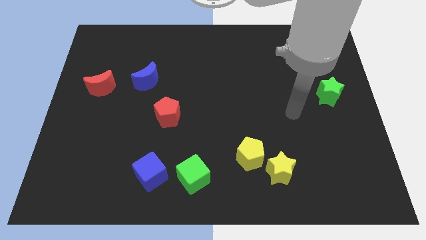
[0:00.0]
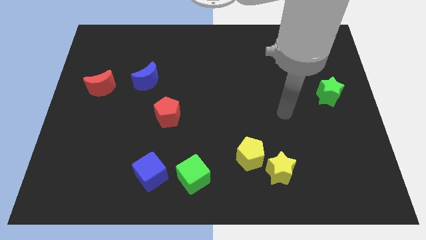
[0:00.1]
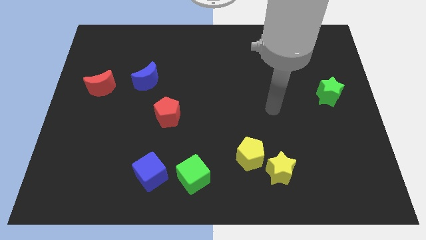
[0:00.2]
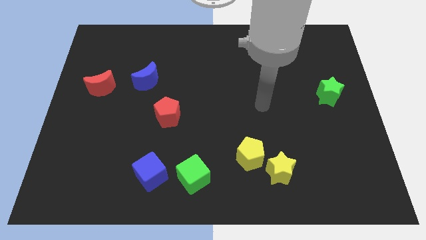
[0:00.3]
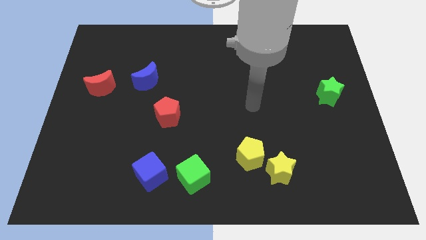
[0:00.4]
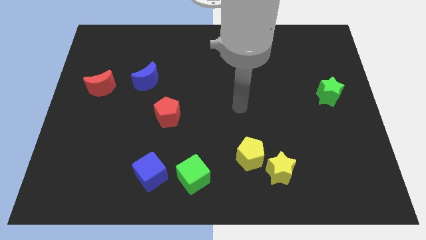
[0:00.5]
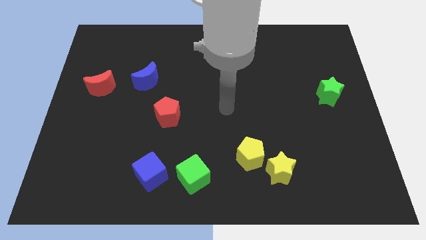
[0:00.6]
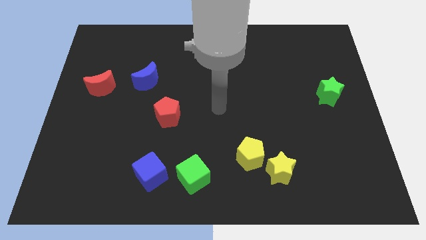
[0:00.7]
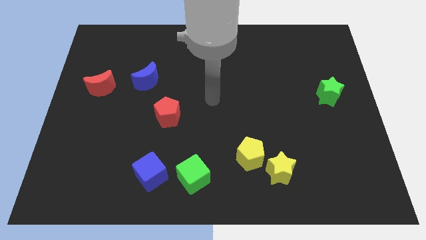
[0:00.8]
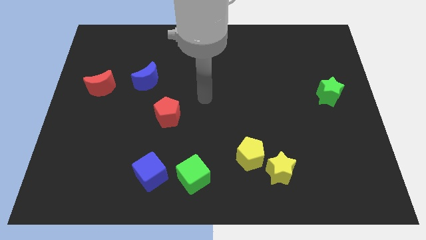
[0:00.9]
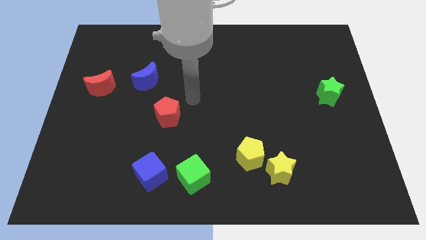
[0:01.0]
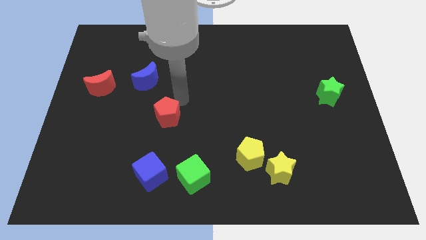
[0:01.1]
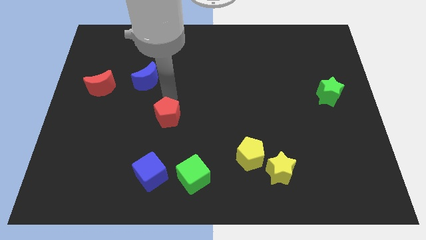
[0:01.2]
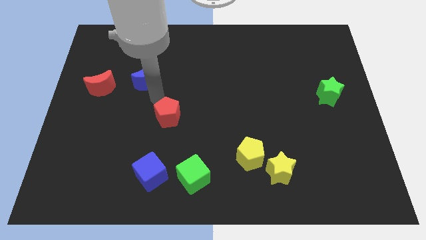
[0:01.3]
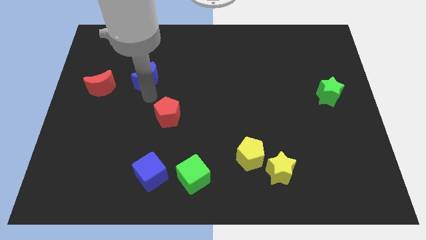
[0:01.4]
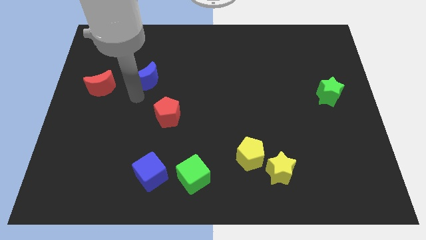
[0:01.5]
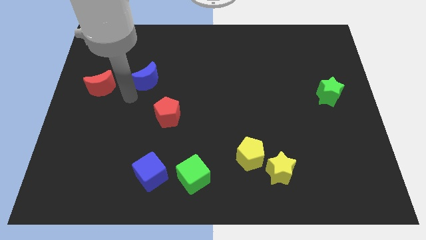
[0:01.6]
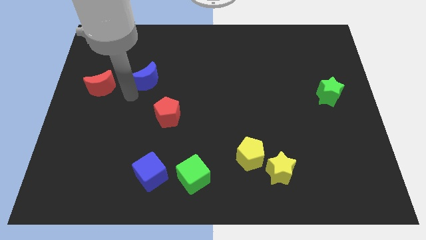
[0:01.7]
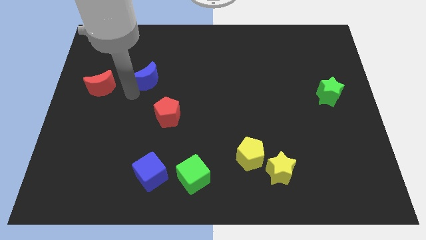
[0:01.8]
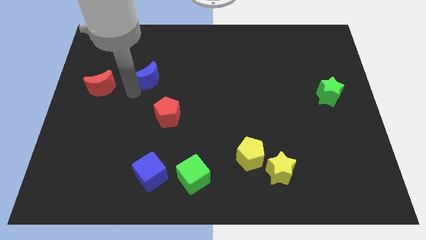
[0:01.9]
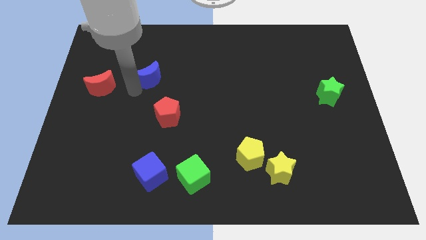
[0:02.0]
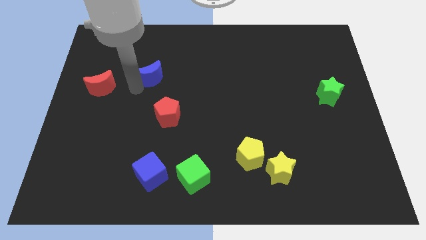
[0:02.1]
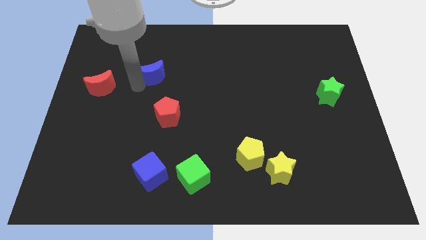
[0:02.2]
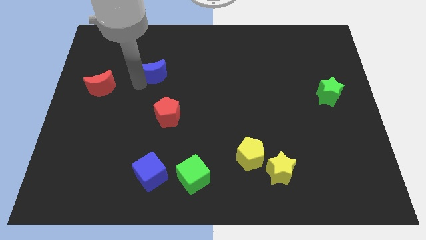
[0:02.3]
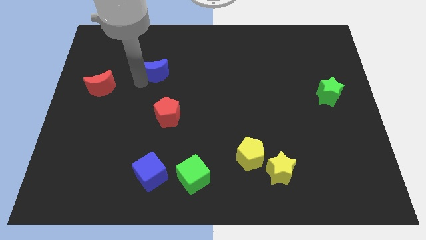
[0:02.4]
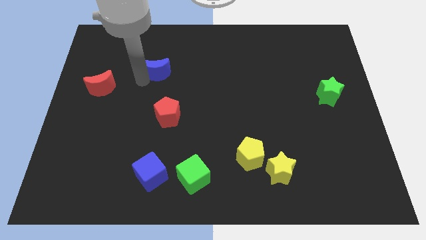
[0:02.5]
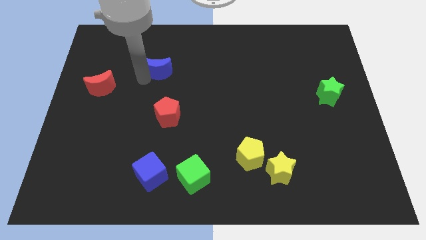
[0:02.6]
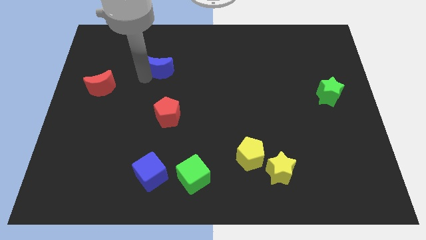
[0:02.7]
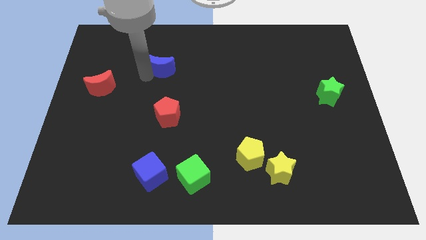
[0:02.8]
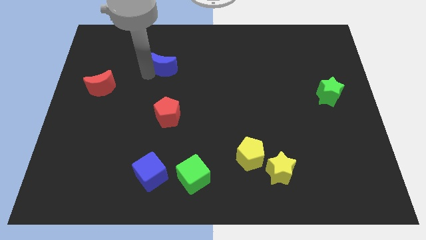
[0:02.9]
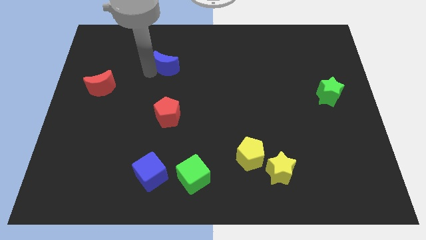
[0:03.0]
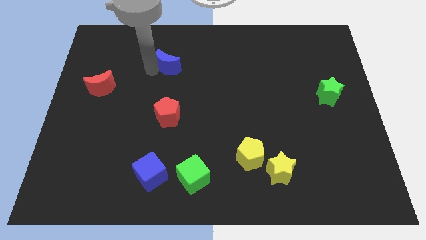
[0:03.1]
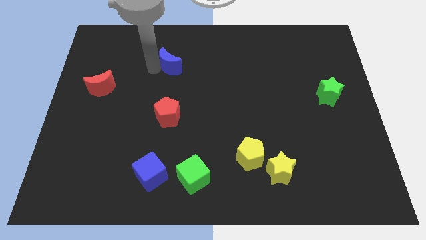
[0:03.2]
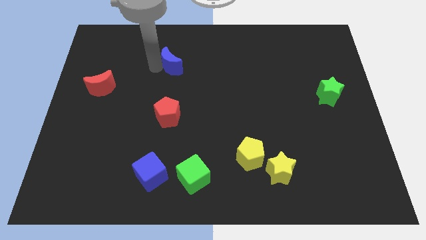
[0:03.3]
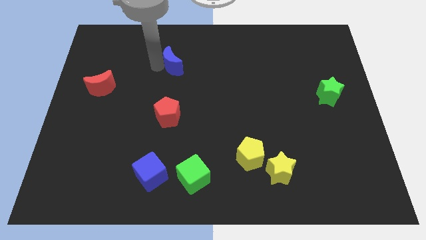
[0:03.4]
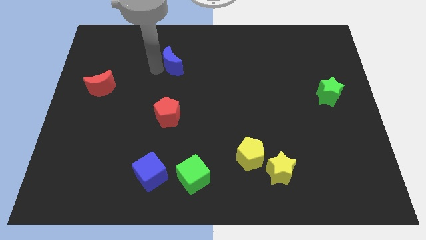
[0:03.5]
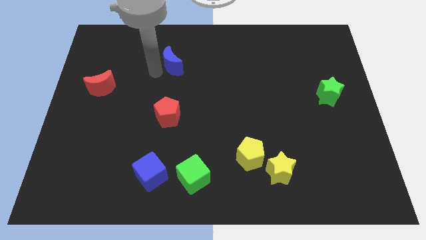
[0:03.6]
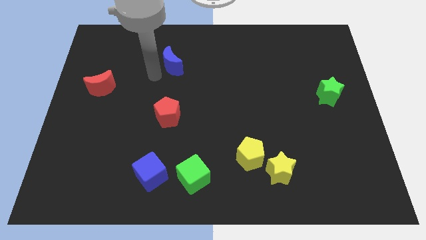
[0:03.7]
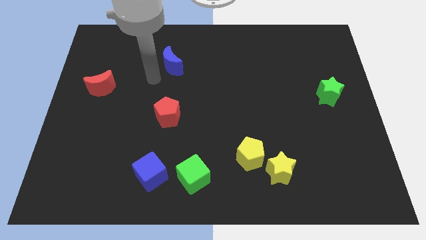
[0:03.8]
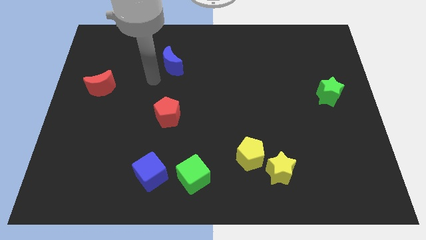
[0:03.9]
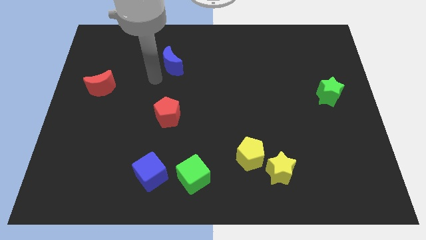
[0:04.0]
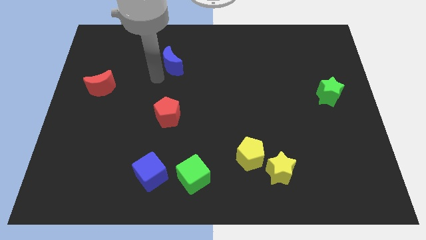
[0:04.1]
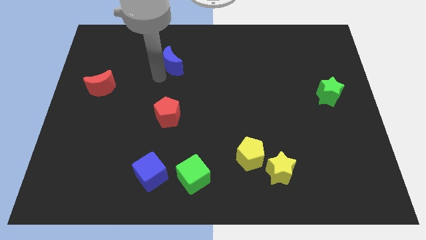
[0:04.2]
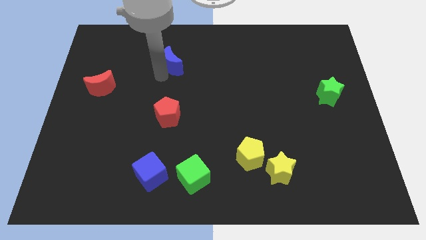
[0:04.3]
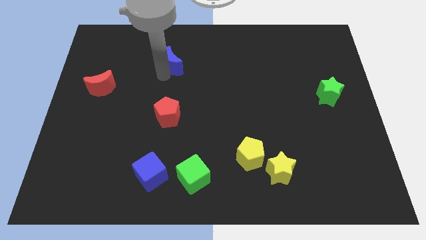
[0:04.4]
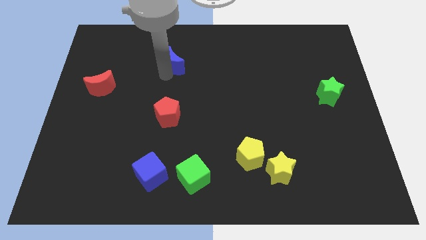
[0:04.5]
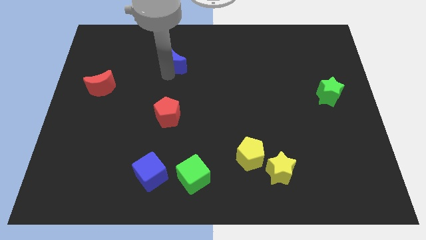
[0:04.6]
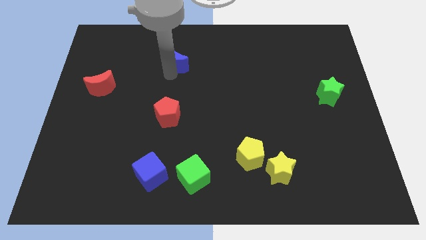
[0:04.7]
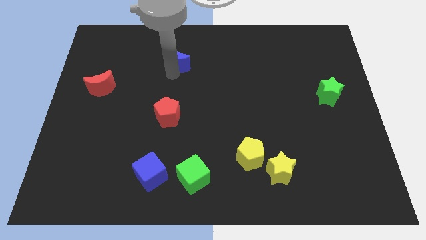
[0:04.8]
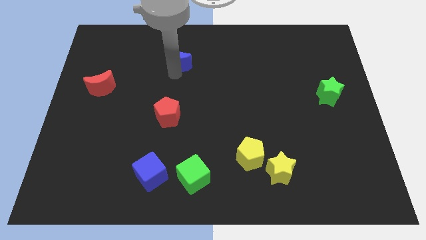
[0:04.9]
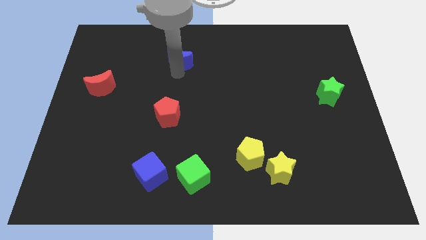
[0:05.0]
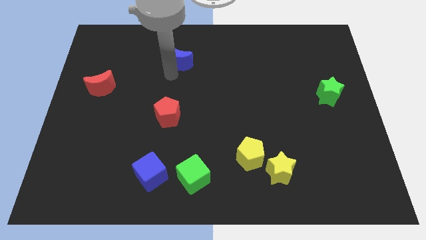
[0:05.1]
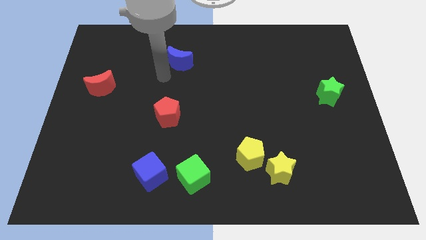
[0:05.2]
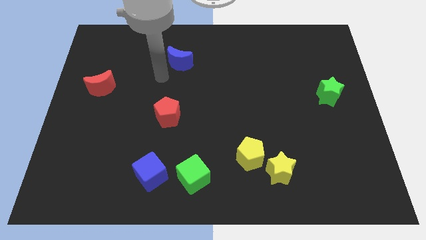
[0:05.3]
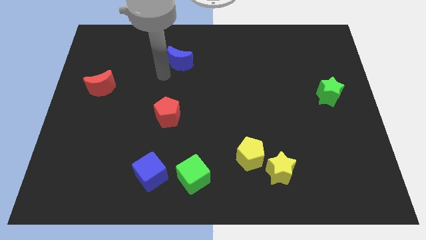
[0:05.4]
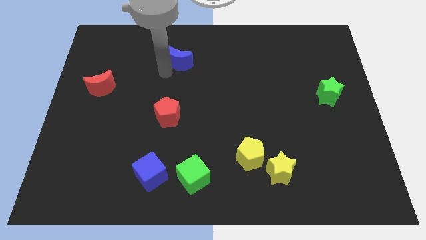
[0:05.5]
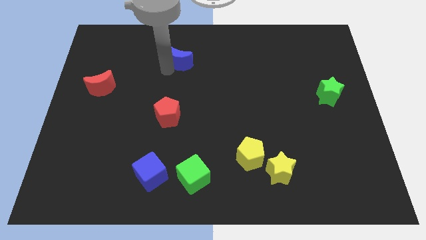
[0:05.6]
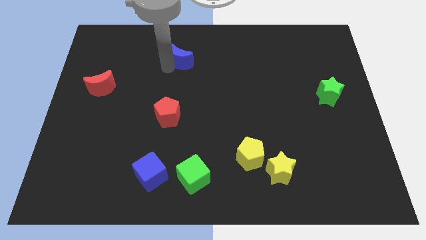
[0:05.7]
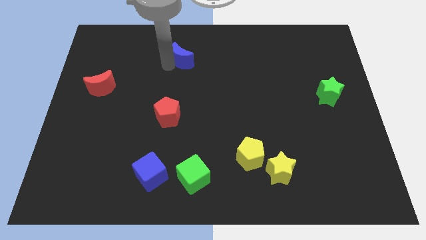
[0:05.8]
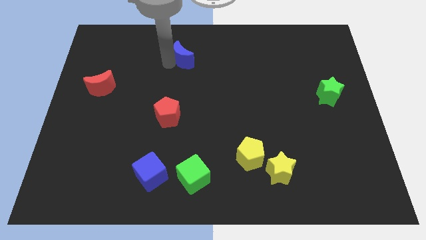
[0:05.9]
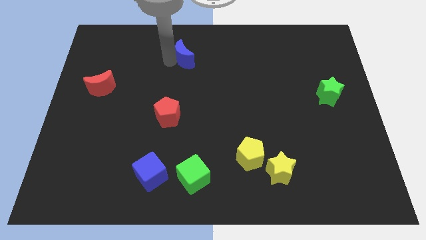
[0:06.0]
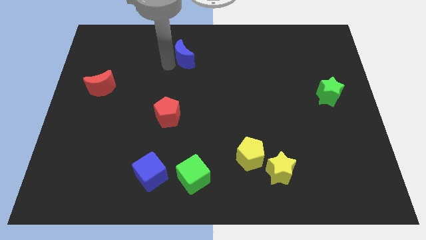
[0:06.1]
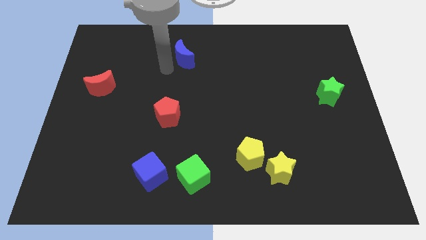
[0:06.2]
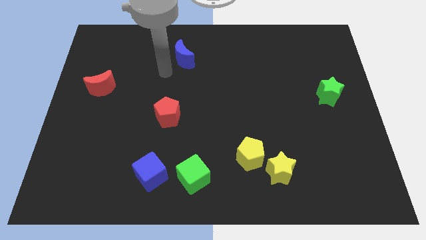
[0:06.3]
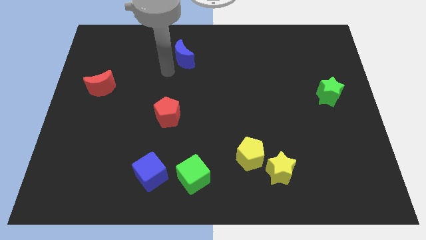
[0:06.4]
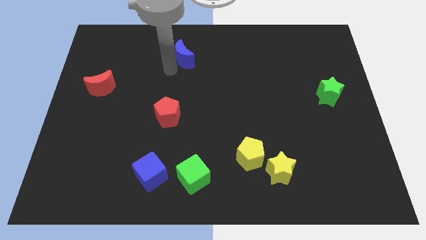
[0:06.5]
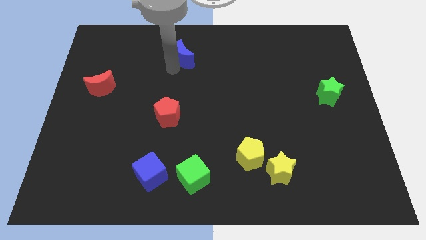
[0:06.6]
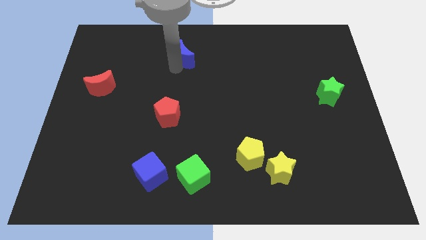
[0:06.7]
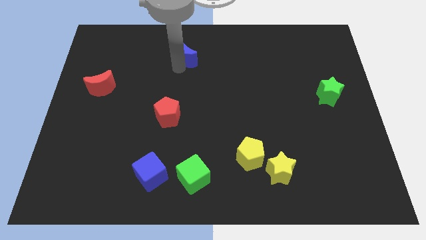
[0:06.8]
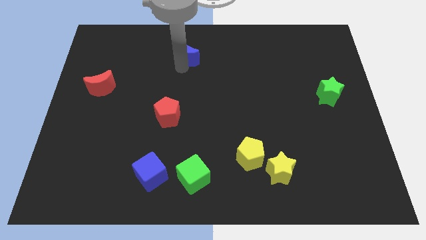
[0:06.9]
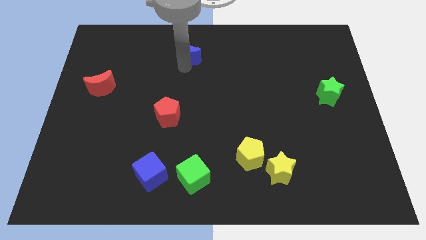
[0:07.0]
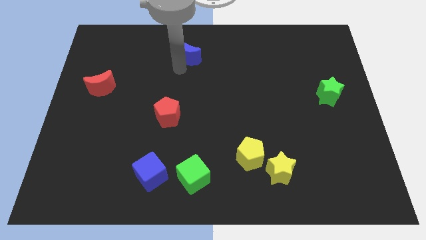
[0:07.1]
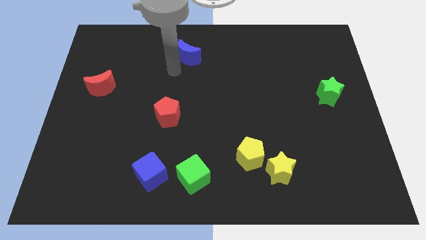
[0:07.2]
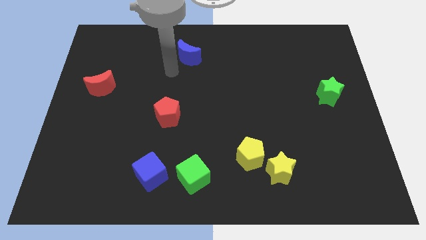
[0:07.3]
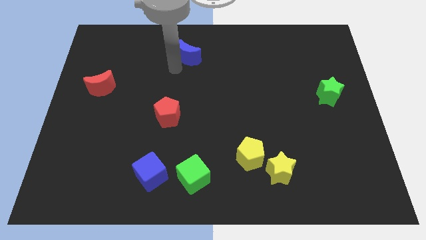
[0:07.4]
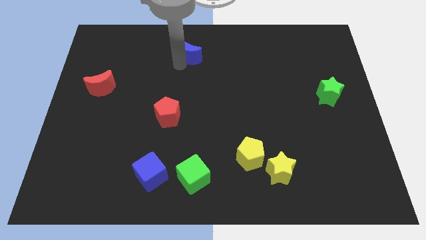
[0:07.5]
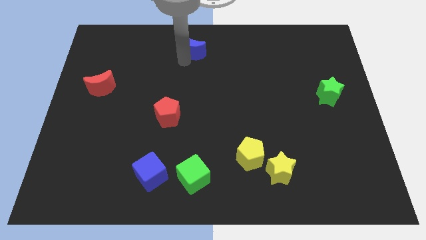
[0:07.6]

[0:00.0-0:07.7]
slide the blue moon to the towards your base
